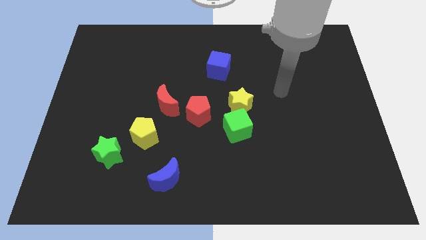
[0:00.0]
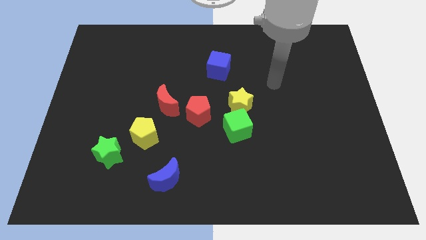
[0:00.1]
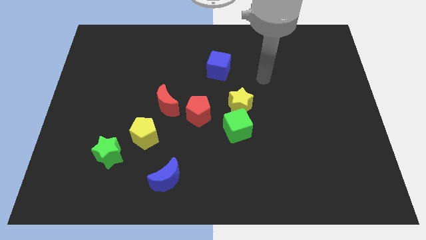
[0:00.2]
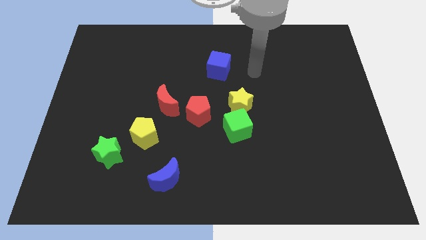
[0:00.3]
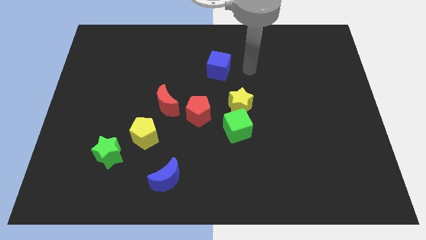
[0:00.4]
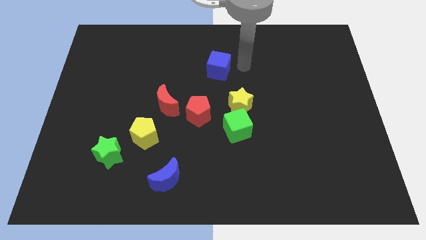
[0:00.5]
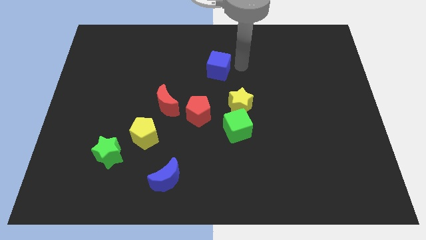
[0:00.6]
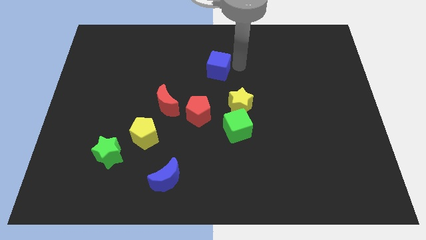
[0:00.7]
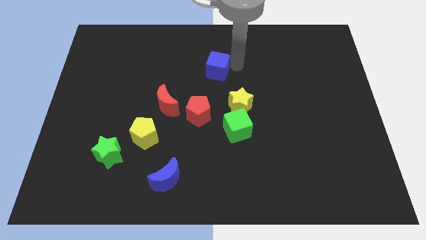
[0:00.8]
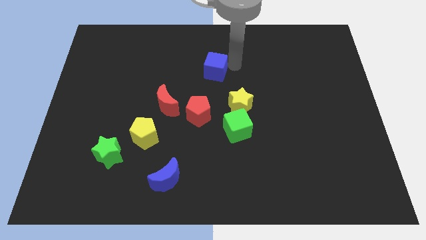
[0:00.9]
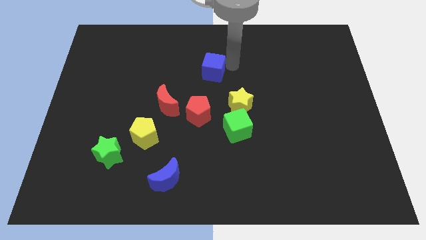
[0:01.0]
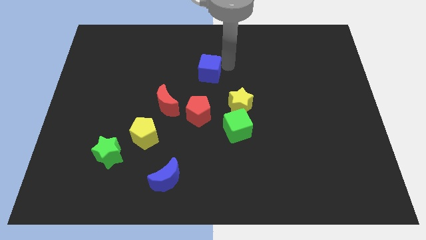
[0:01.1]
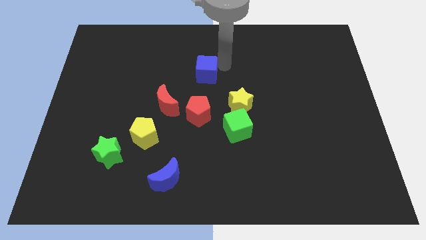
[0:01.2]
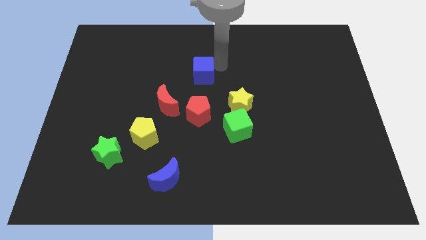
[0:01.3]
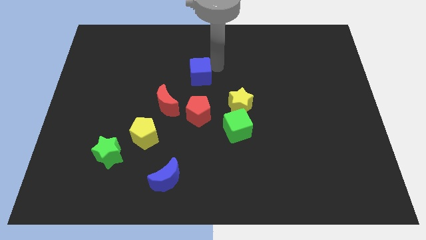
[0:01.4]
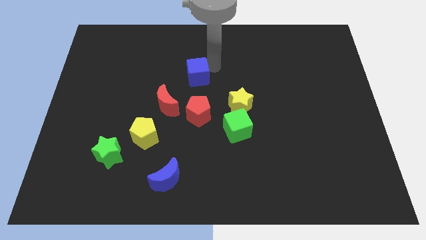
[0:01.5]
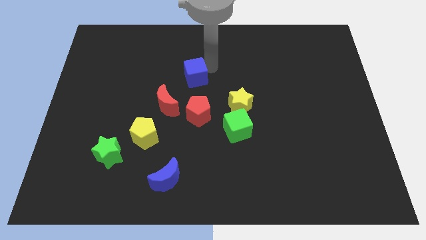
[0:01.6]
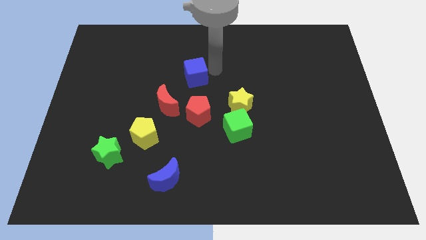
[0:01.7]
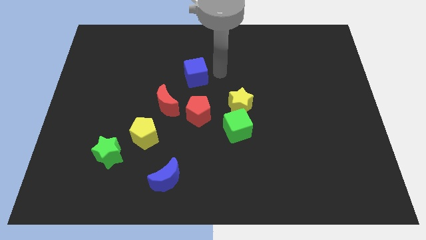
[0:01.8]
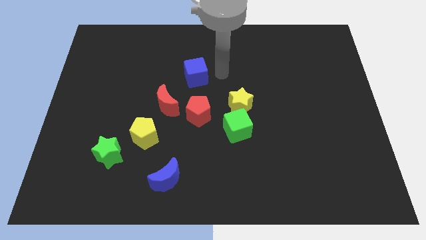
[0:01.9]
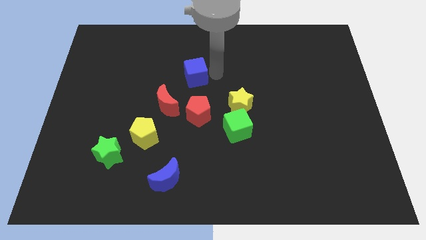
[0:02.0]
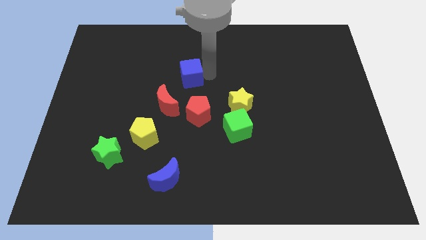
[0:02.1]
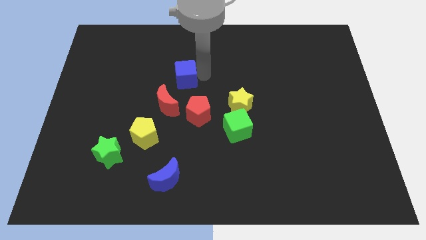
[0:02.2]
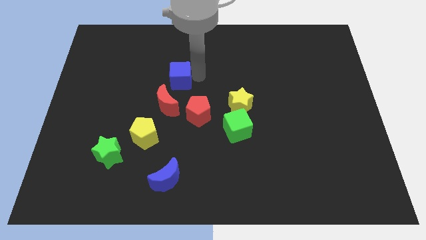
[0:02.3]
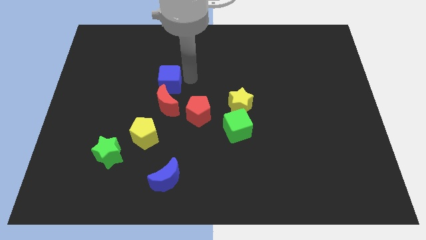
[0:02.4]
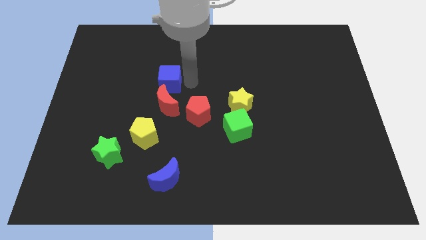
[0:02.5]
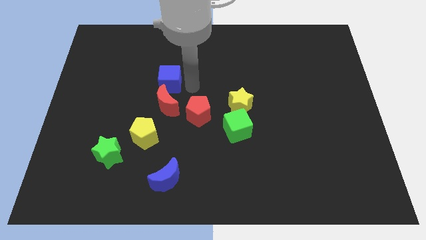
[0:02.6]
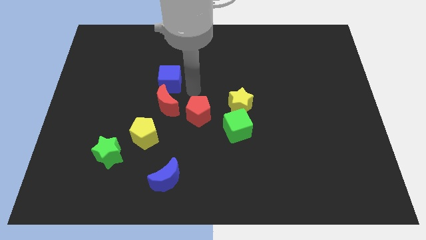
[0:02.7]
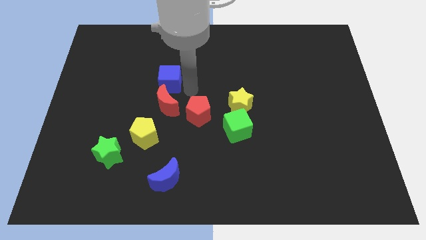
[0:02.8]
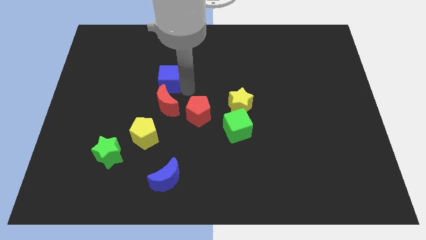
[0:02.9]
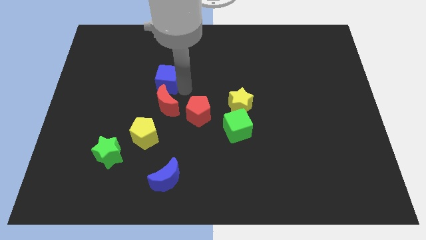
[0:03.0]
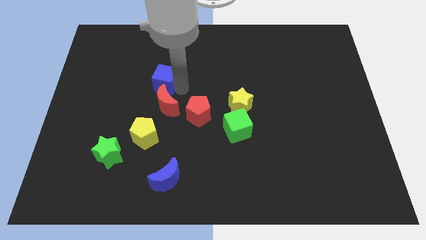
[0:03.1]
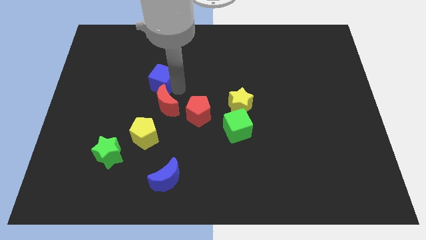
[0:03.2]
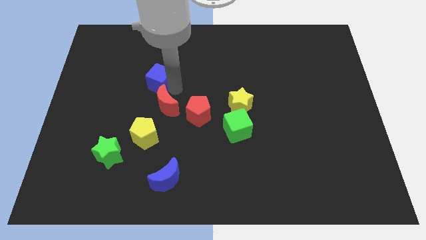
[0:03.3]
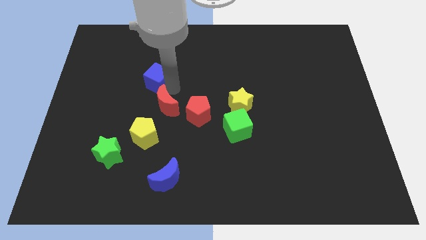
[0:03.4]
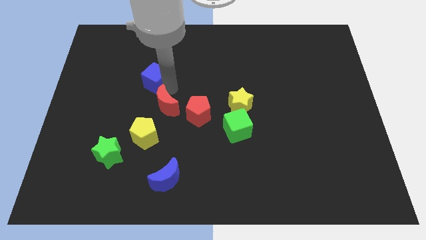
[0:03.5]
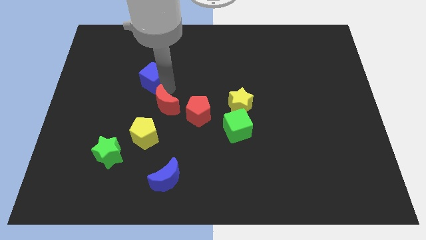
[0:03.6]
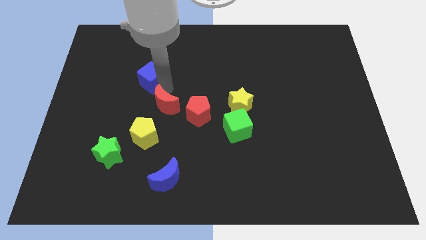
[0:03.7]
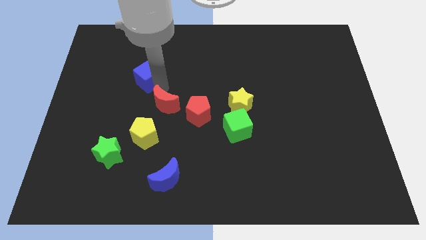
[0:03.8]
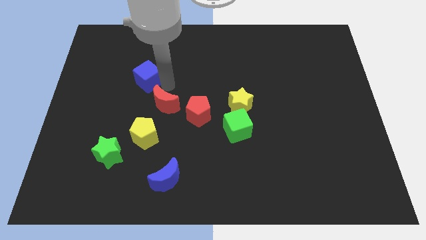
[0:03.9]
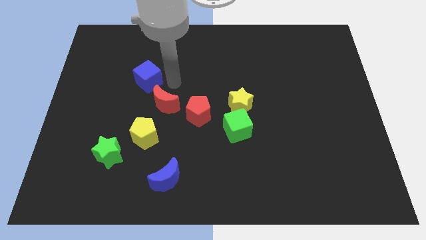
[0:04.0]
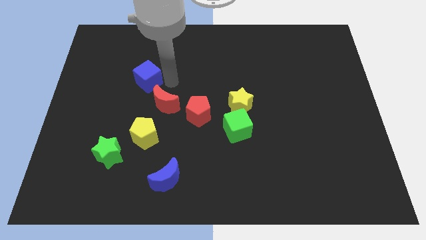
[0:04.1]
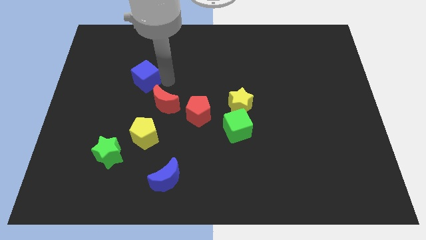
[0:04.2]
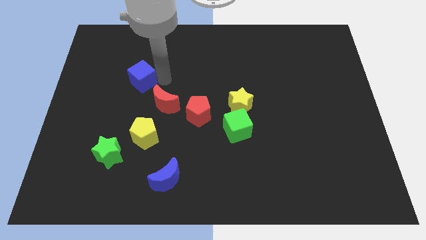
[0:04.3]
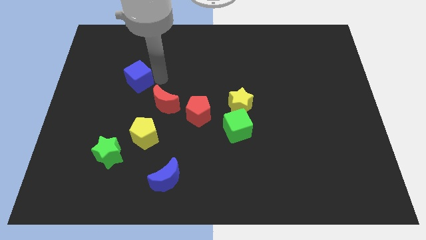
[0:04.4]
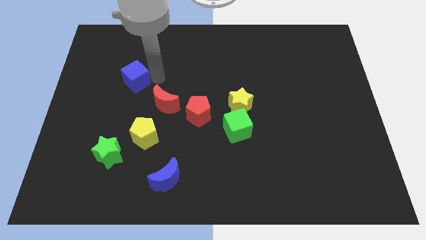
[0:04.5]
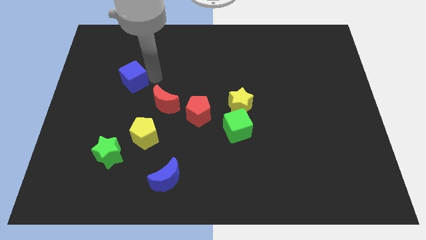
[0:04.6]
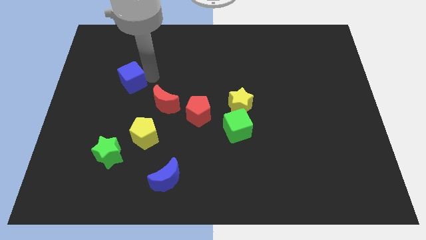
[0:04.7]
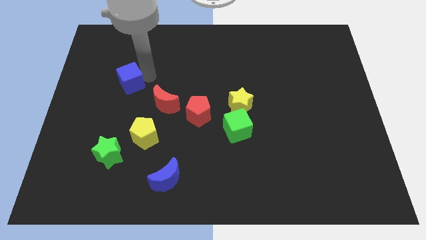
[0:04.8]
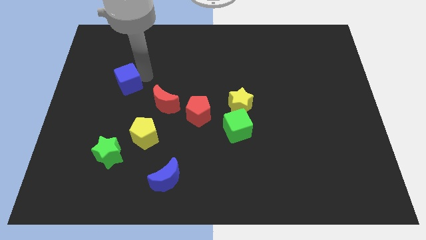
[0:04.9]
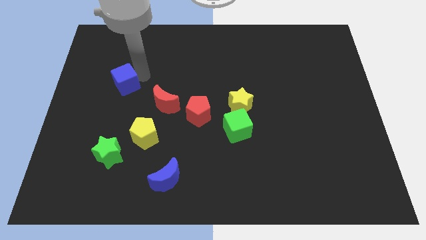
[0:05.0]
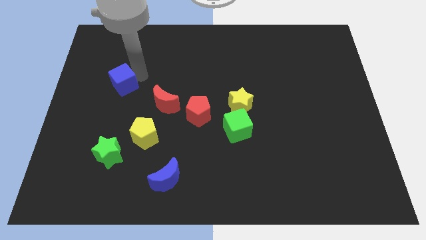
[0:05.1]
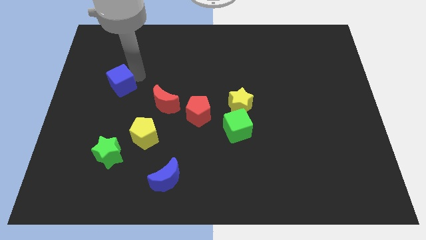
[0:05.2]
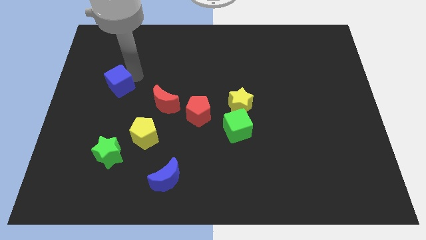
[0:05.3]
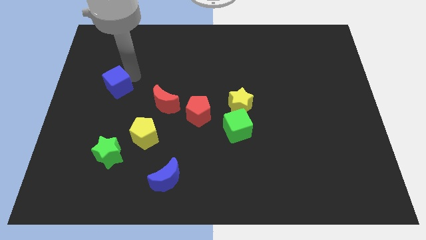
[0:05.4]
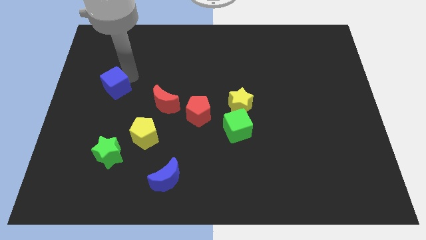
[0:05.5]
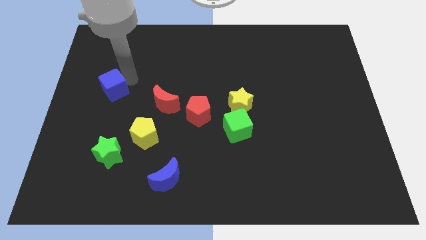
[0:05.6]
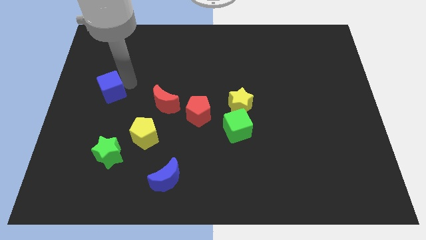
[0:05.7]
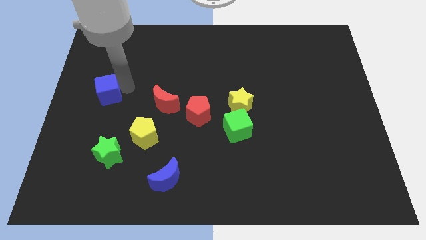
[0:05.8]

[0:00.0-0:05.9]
slide the blue cube to the center left

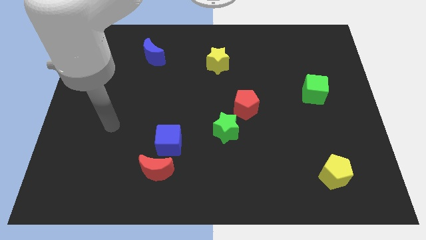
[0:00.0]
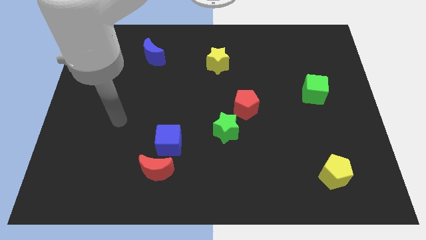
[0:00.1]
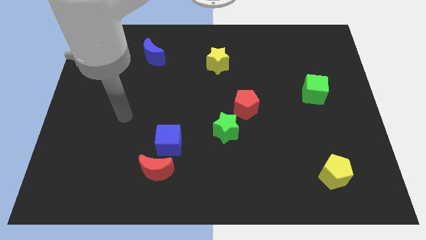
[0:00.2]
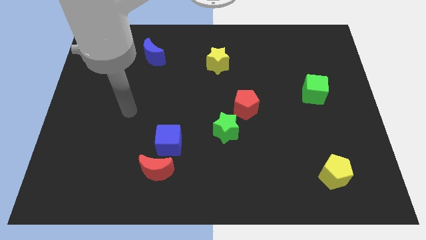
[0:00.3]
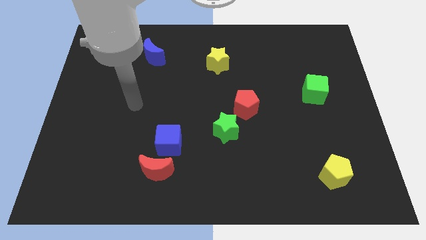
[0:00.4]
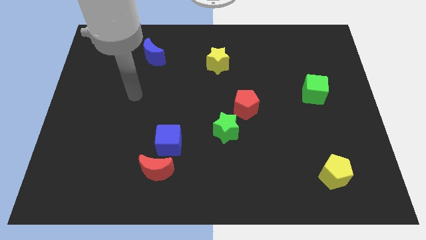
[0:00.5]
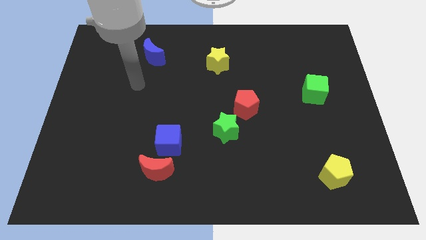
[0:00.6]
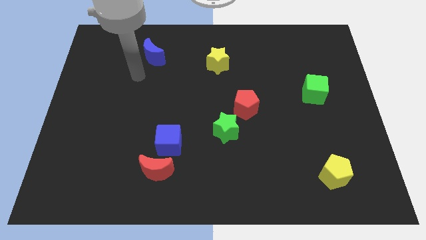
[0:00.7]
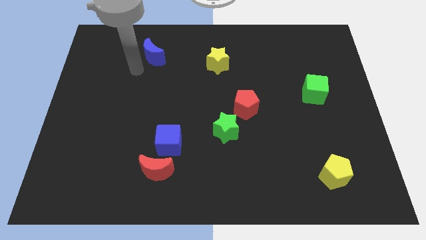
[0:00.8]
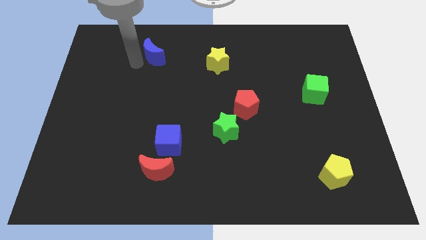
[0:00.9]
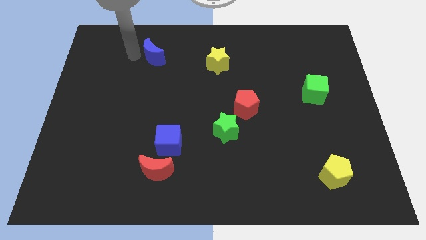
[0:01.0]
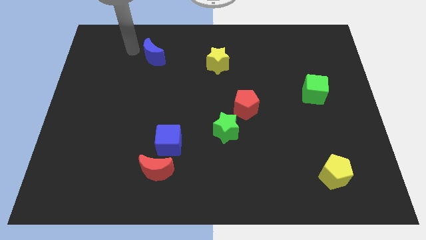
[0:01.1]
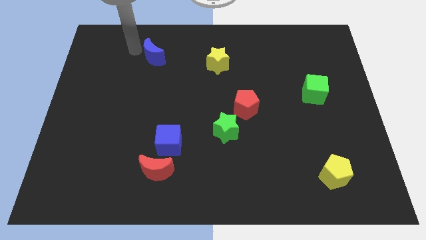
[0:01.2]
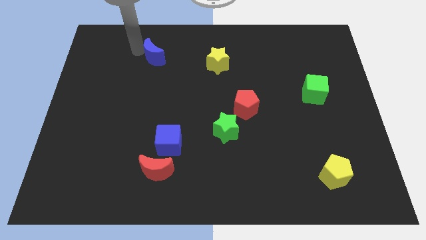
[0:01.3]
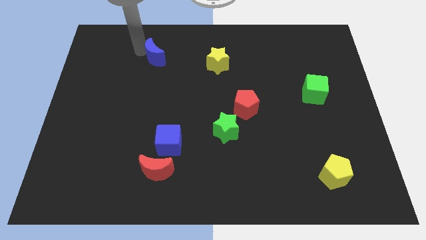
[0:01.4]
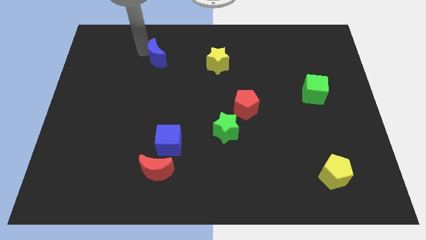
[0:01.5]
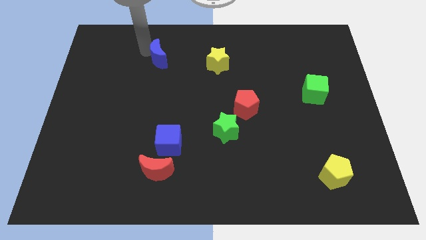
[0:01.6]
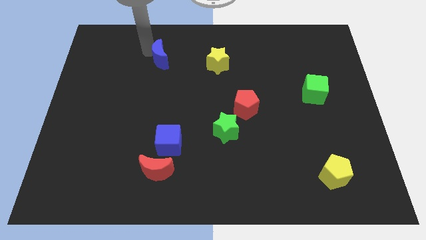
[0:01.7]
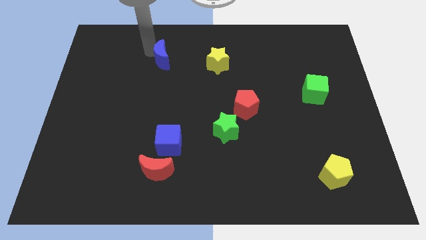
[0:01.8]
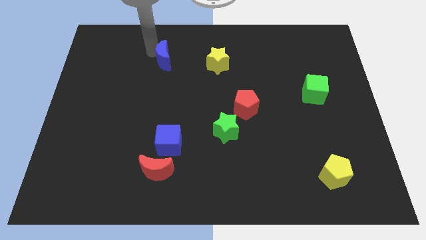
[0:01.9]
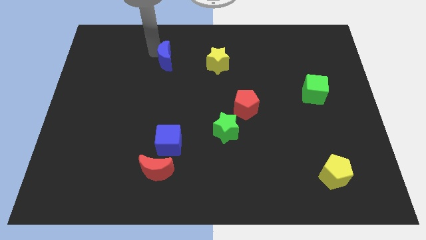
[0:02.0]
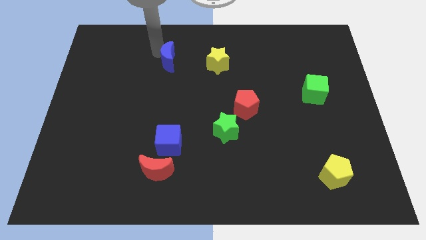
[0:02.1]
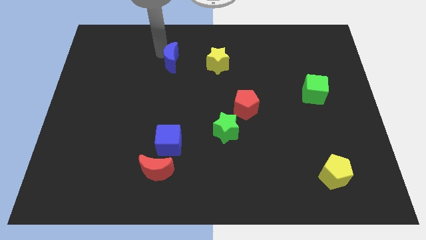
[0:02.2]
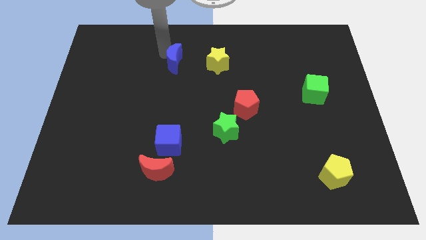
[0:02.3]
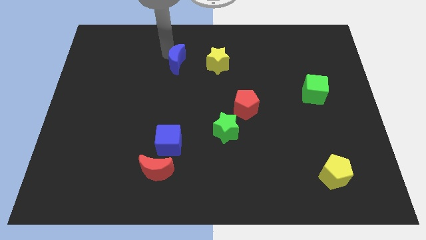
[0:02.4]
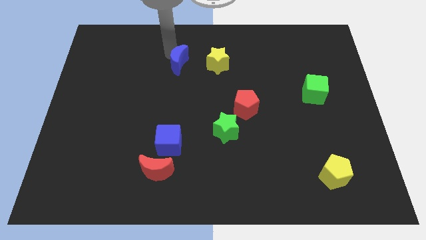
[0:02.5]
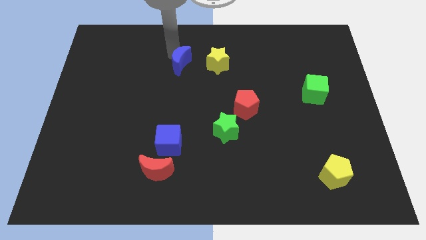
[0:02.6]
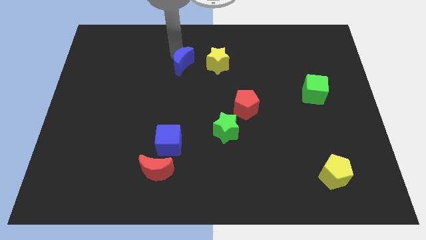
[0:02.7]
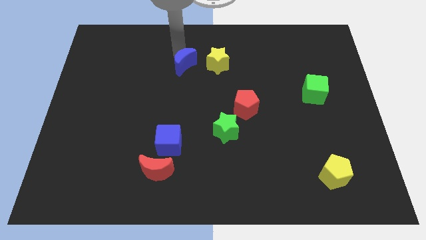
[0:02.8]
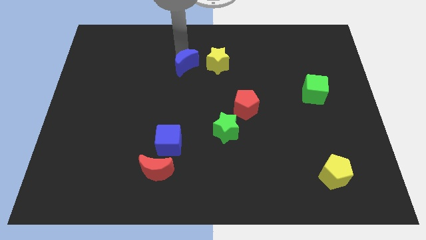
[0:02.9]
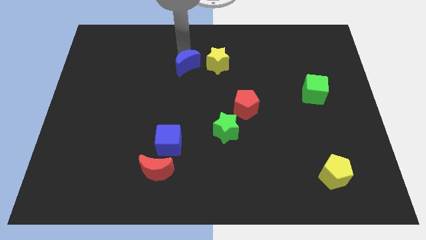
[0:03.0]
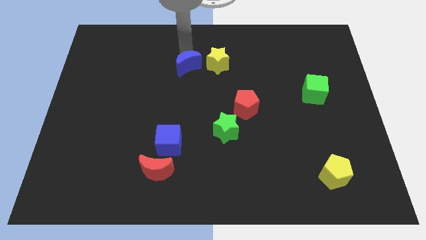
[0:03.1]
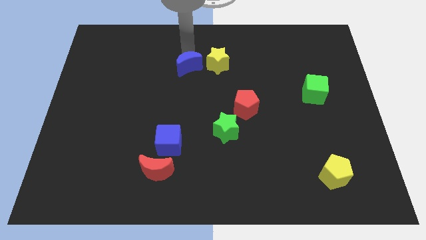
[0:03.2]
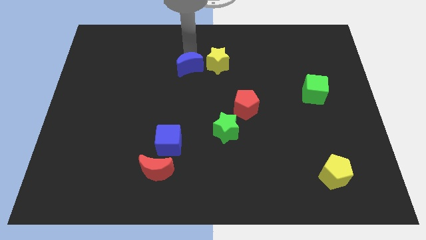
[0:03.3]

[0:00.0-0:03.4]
put the blue moon to the center of the board
